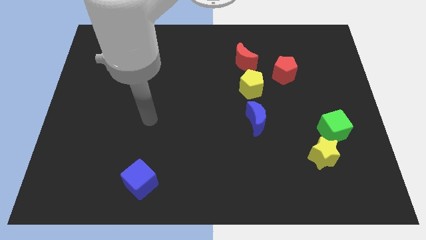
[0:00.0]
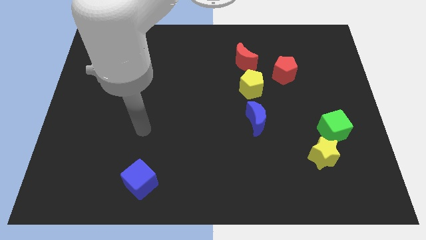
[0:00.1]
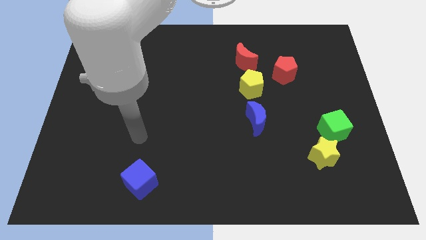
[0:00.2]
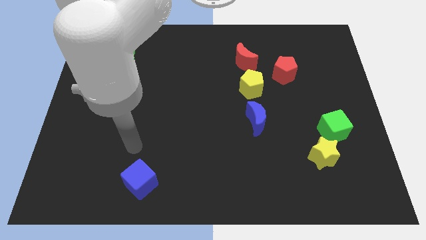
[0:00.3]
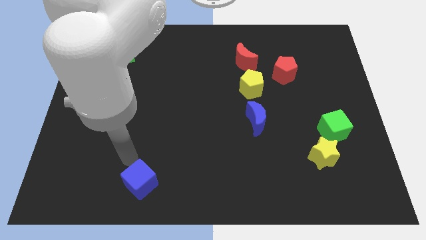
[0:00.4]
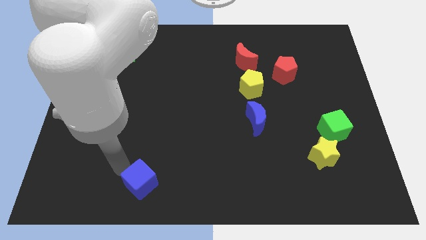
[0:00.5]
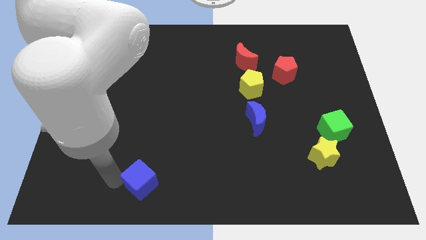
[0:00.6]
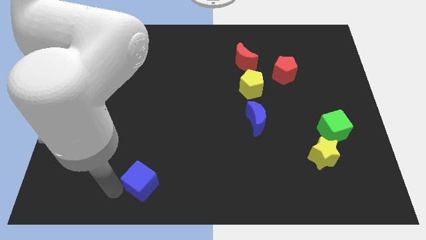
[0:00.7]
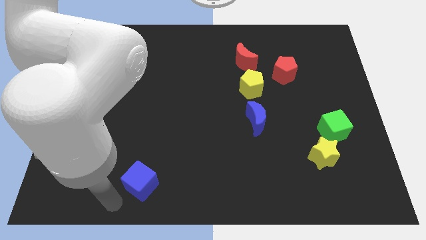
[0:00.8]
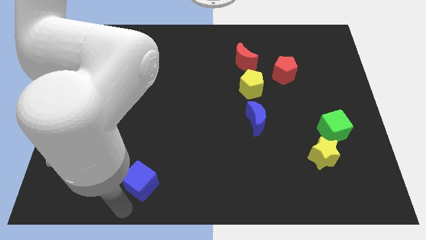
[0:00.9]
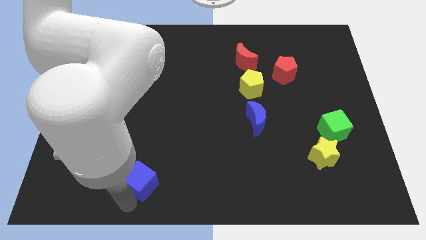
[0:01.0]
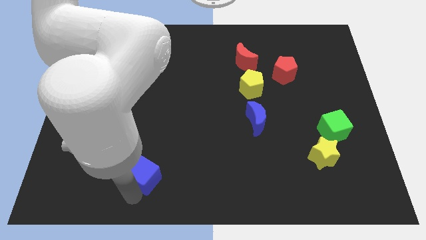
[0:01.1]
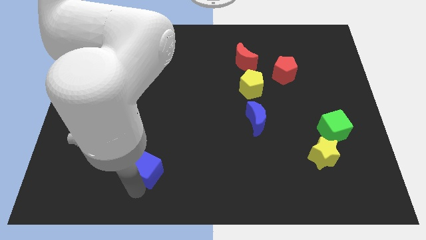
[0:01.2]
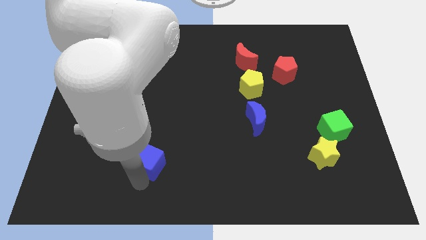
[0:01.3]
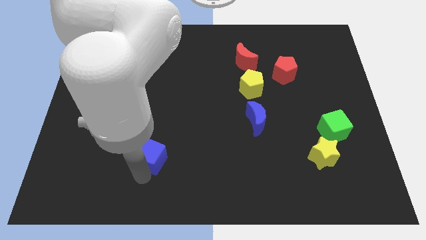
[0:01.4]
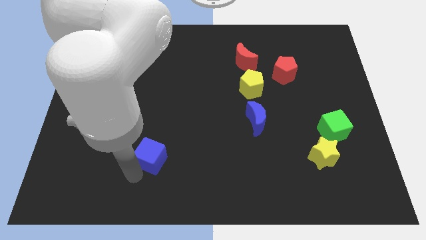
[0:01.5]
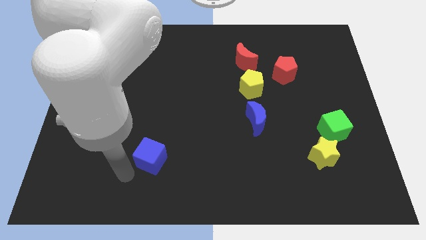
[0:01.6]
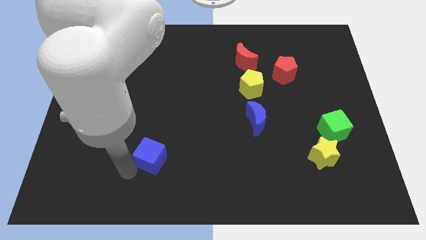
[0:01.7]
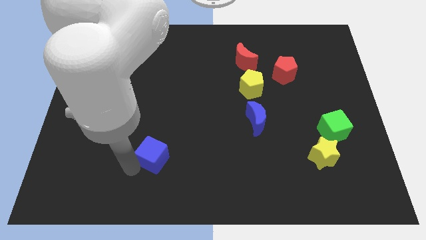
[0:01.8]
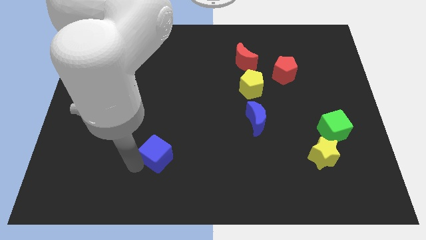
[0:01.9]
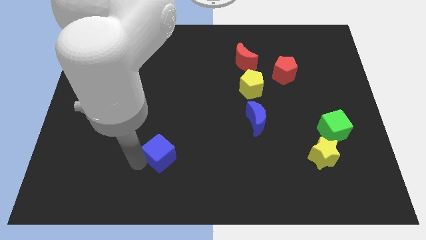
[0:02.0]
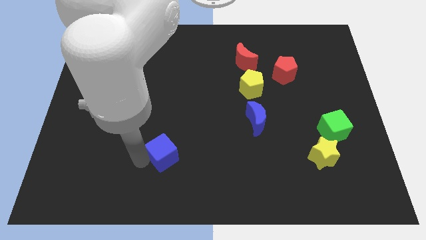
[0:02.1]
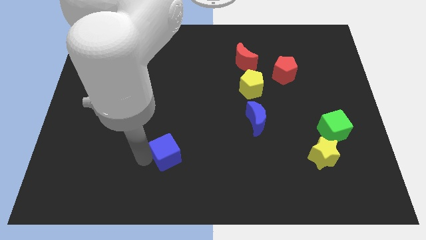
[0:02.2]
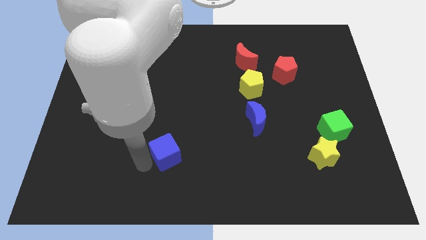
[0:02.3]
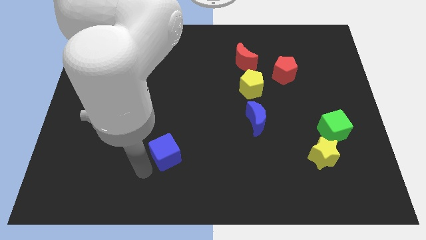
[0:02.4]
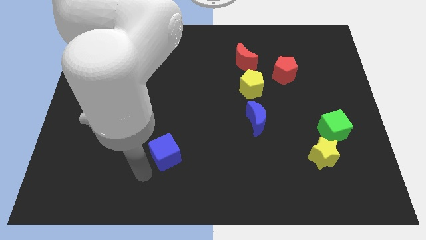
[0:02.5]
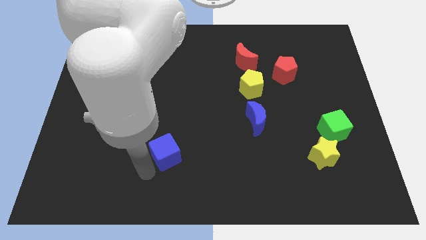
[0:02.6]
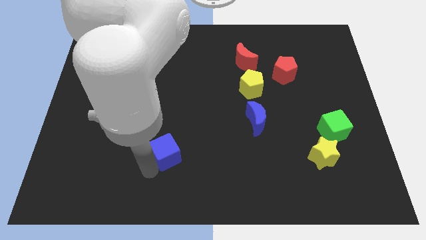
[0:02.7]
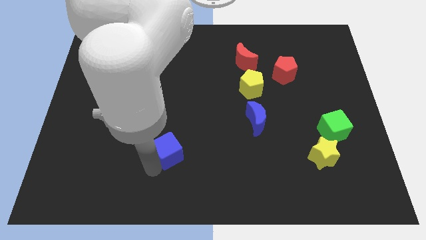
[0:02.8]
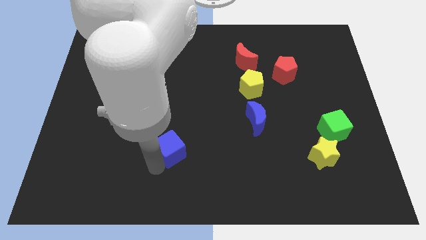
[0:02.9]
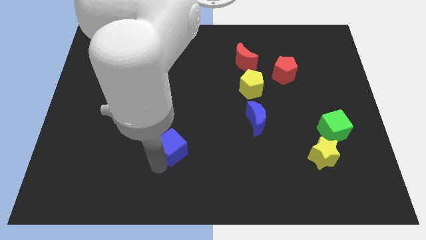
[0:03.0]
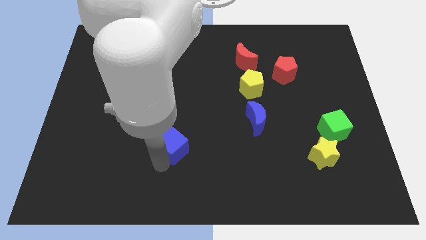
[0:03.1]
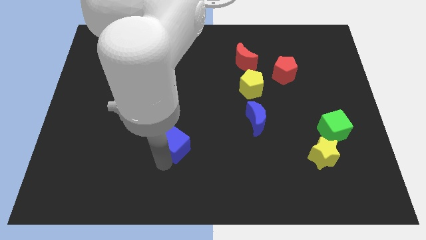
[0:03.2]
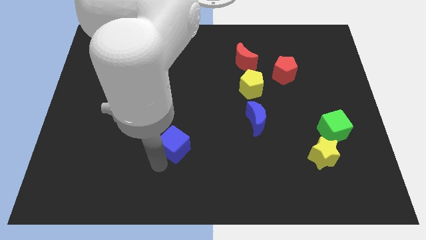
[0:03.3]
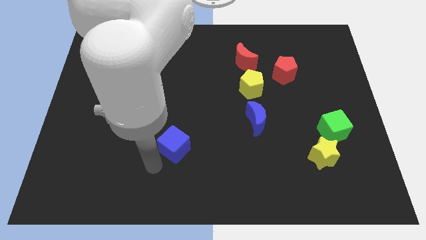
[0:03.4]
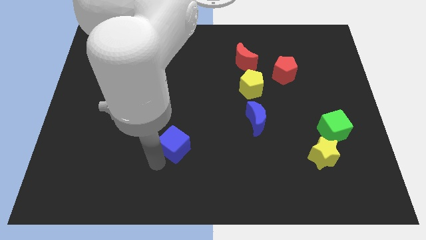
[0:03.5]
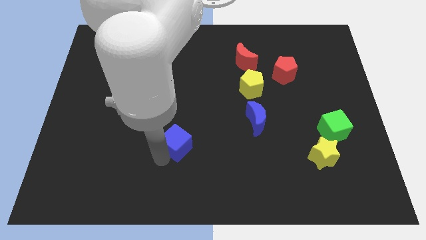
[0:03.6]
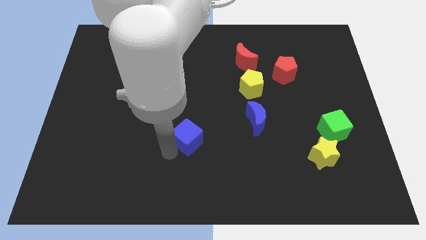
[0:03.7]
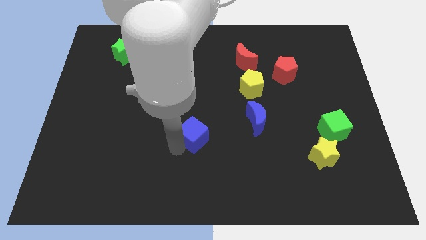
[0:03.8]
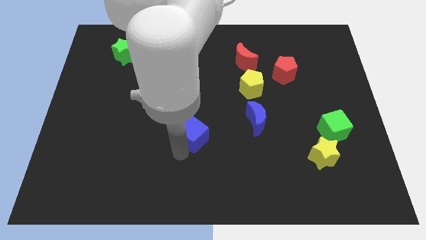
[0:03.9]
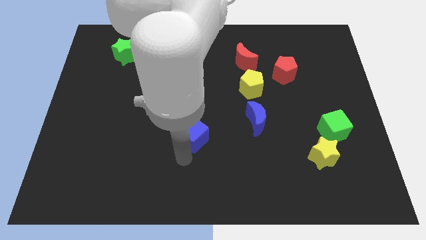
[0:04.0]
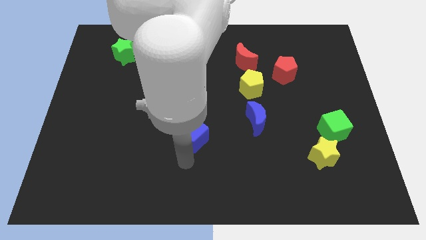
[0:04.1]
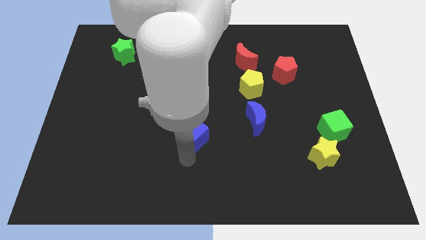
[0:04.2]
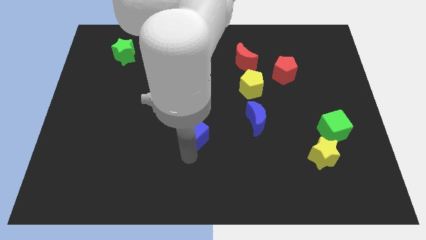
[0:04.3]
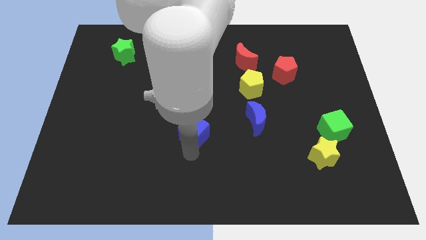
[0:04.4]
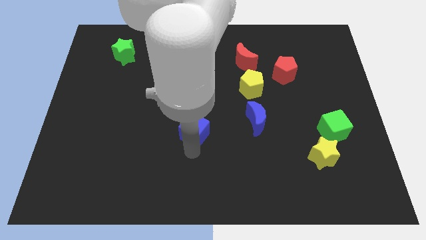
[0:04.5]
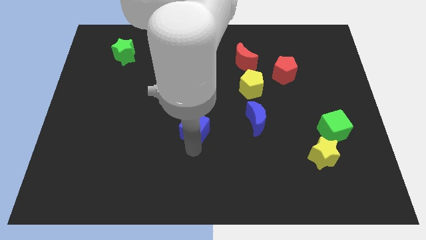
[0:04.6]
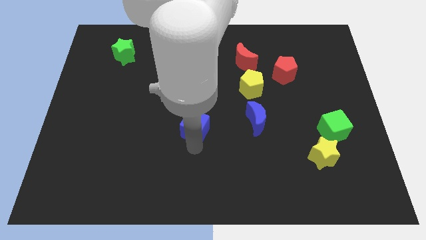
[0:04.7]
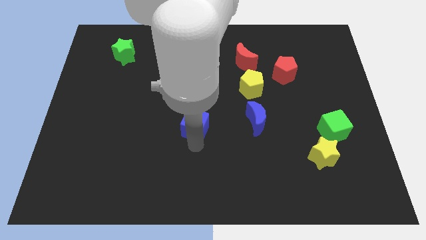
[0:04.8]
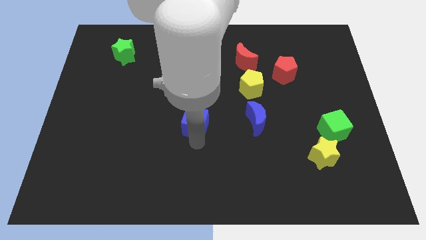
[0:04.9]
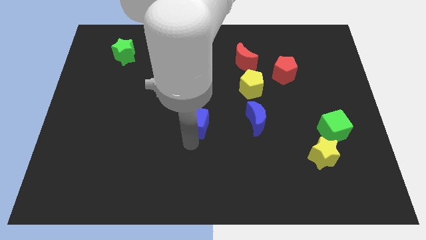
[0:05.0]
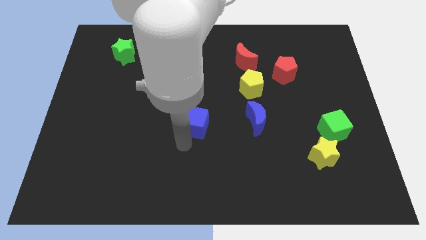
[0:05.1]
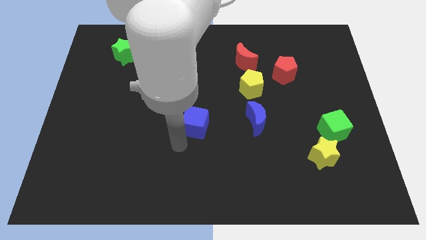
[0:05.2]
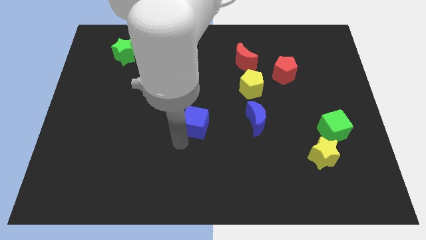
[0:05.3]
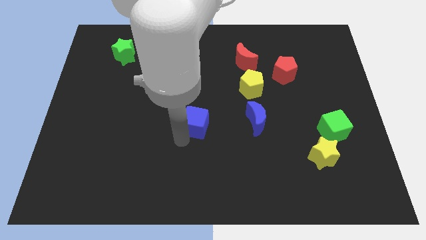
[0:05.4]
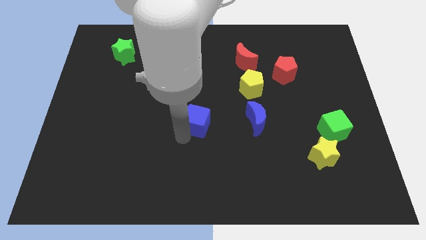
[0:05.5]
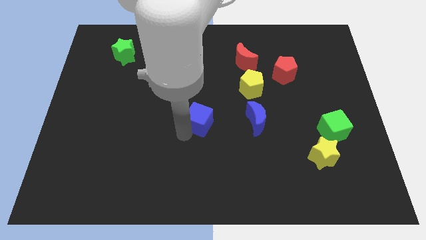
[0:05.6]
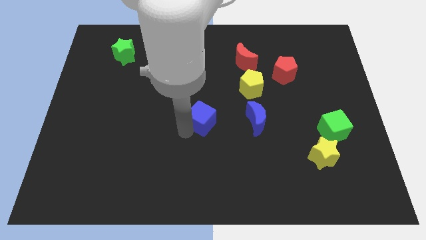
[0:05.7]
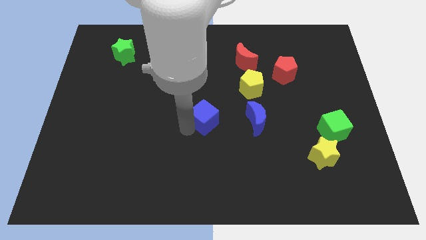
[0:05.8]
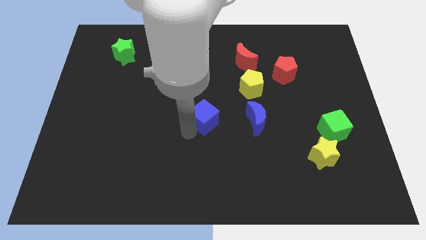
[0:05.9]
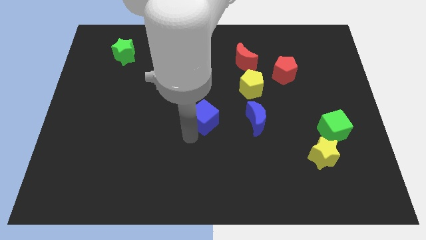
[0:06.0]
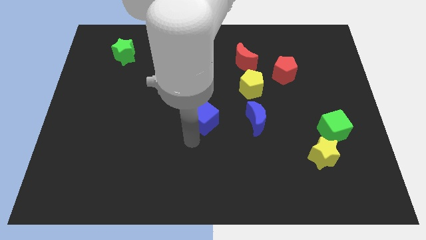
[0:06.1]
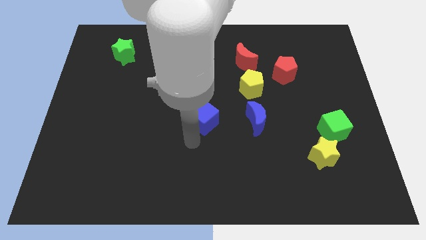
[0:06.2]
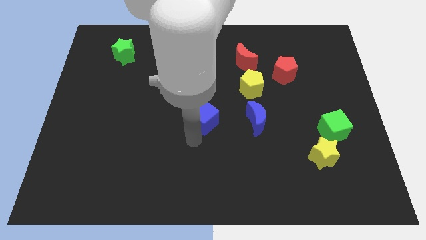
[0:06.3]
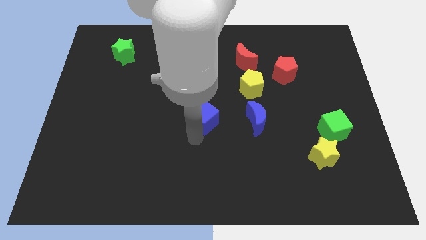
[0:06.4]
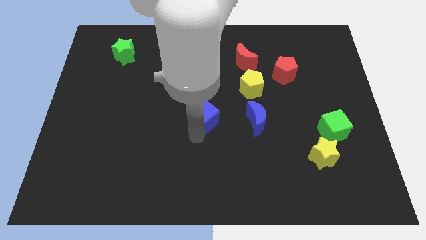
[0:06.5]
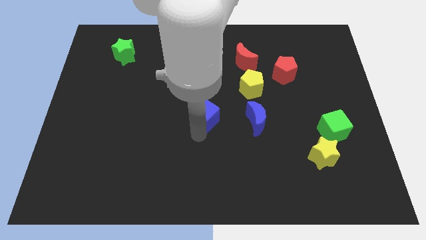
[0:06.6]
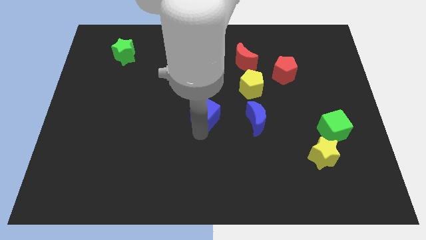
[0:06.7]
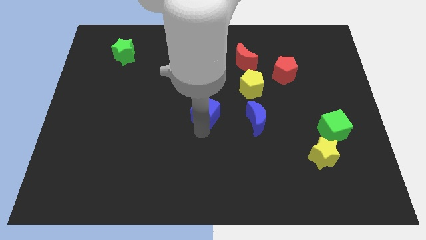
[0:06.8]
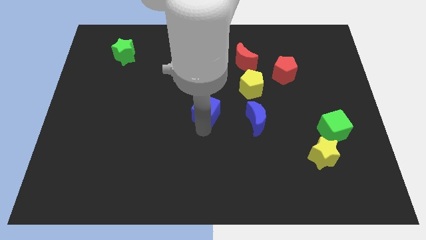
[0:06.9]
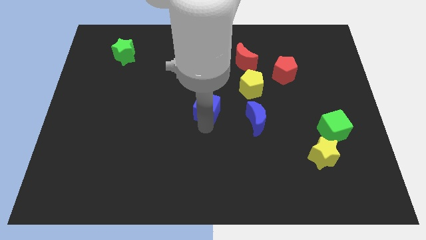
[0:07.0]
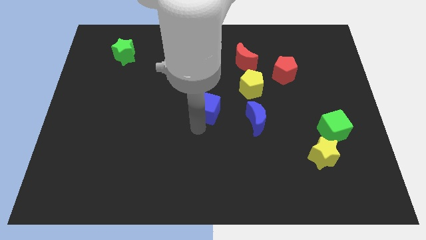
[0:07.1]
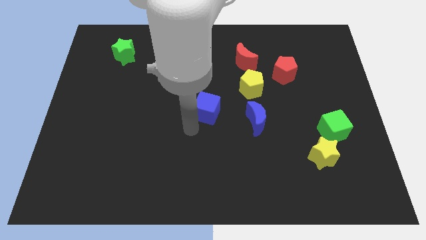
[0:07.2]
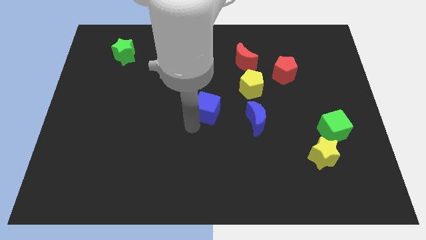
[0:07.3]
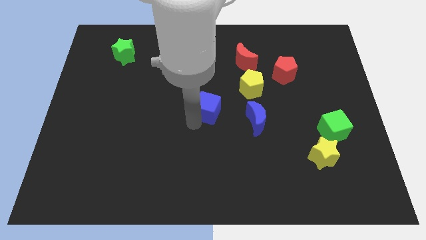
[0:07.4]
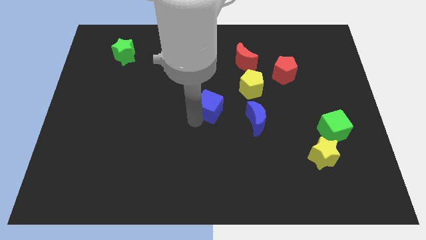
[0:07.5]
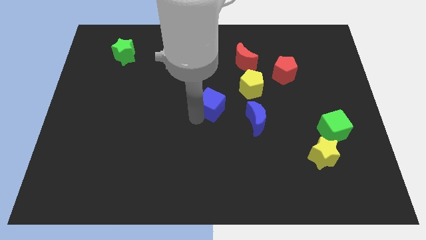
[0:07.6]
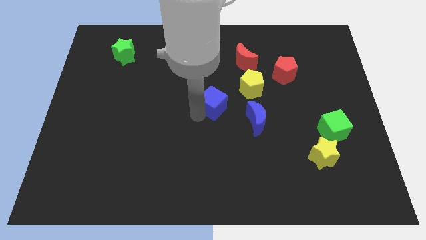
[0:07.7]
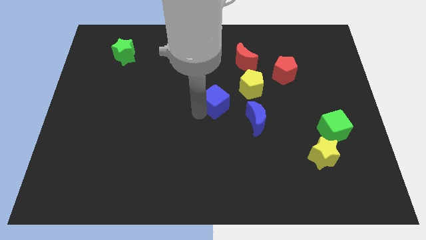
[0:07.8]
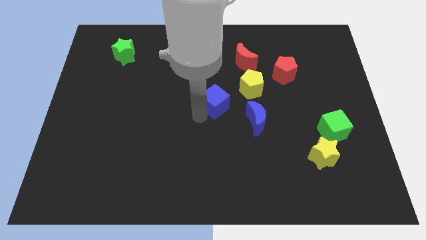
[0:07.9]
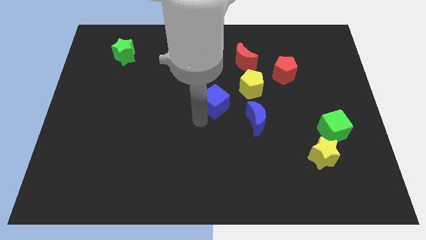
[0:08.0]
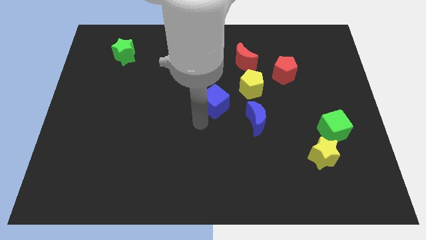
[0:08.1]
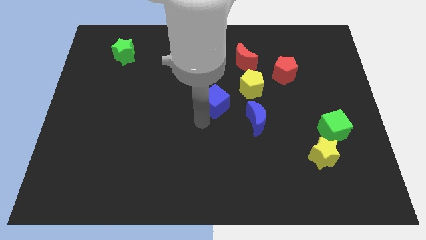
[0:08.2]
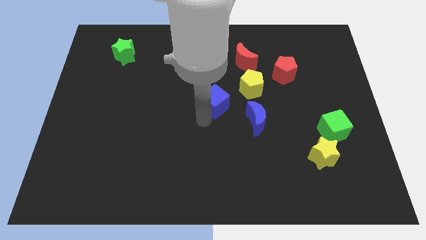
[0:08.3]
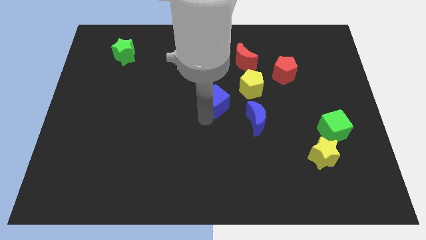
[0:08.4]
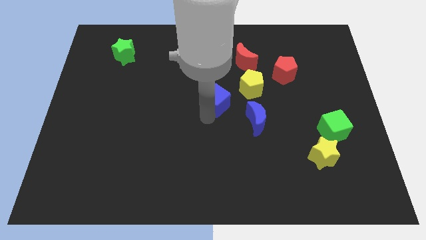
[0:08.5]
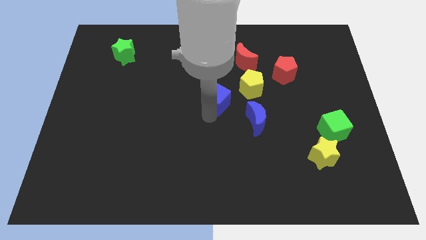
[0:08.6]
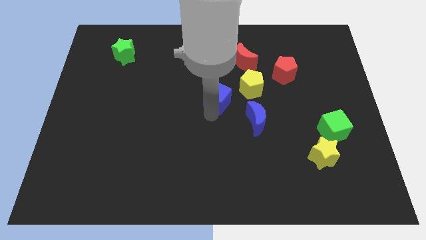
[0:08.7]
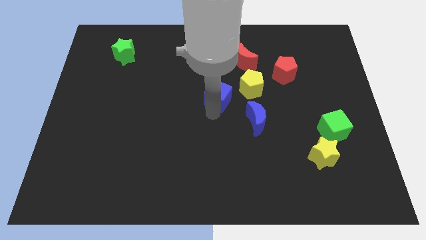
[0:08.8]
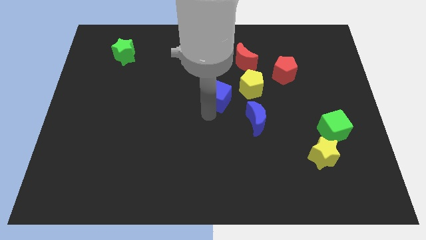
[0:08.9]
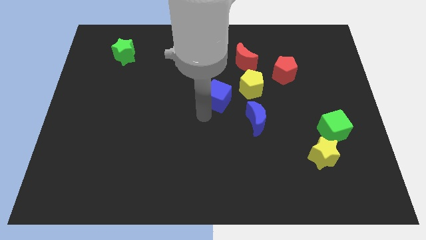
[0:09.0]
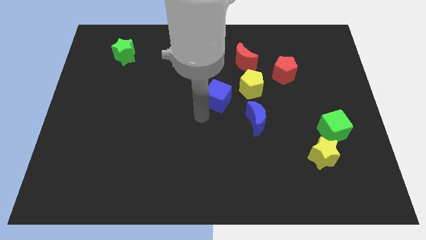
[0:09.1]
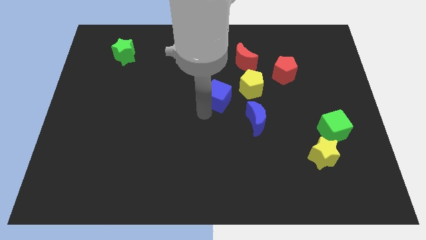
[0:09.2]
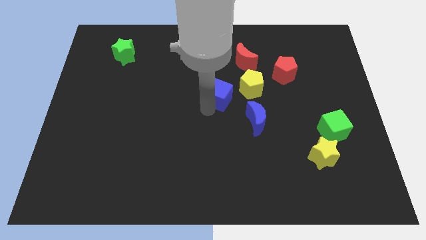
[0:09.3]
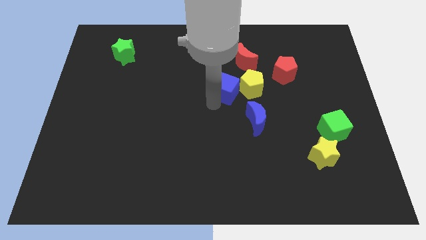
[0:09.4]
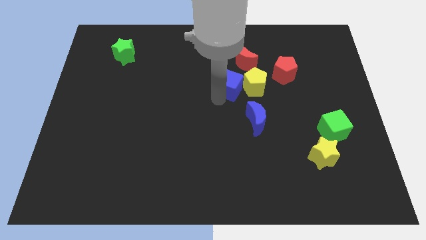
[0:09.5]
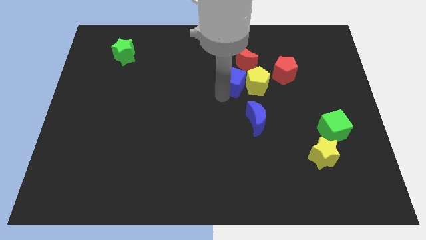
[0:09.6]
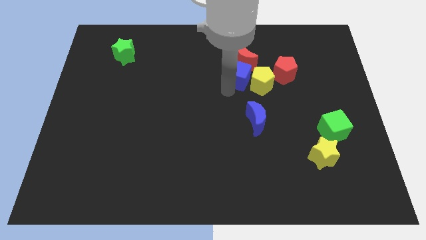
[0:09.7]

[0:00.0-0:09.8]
move the blue cube close to the red moon
